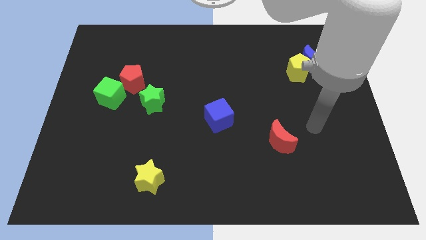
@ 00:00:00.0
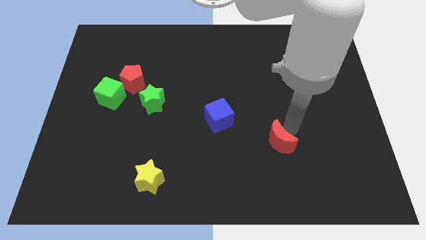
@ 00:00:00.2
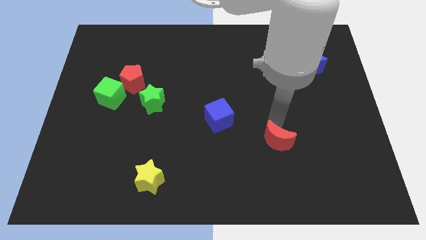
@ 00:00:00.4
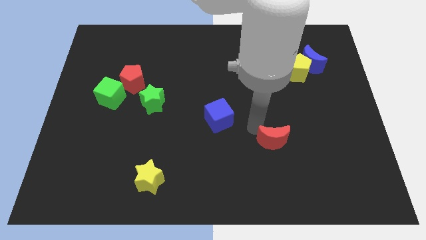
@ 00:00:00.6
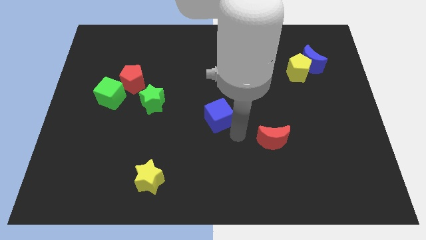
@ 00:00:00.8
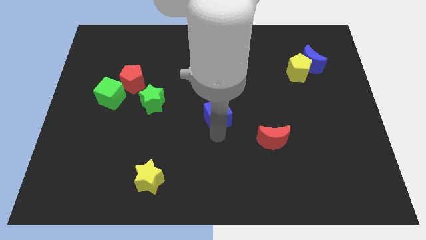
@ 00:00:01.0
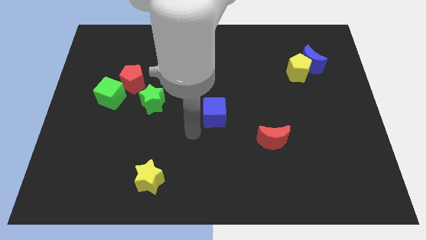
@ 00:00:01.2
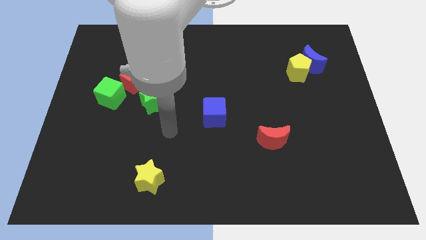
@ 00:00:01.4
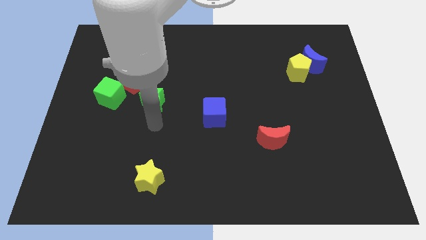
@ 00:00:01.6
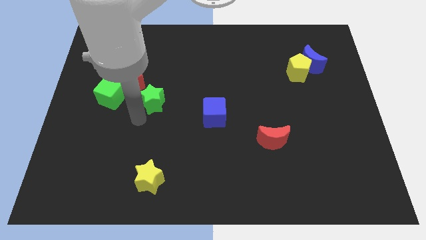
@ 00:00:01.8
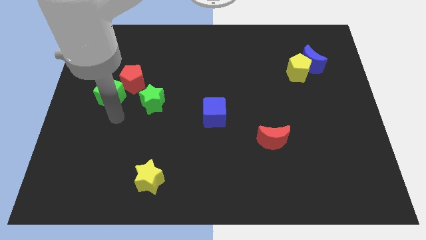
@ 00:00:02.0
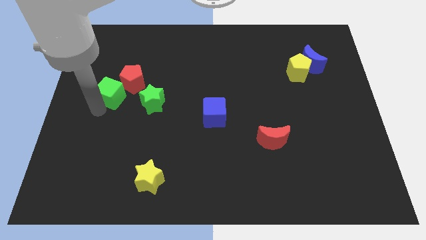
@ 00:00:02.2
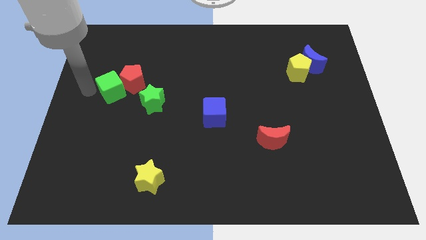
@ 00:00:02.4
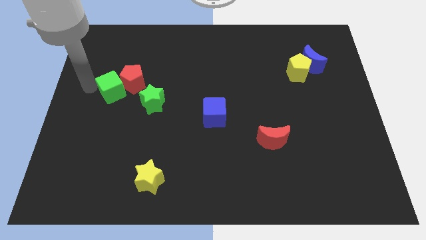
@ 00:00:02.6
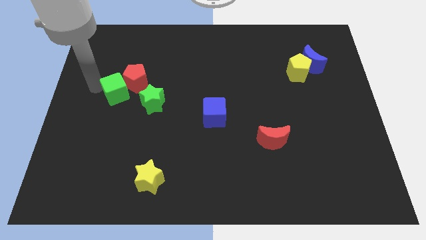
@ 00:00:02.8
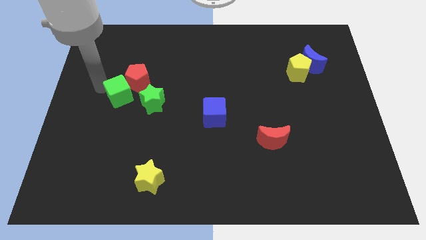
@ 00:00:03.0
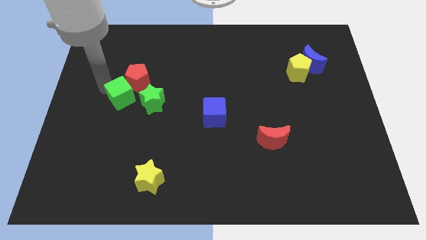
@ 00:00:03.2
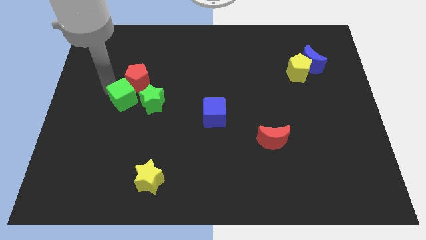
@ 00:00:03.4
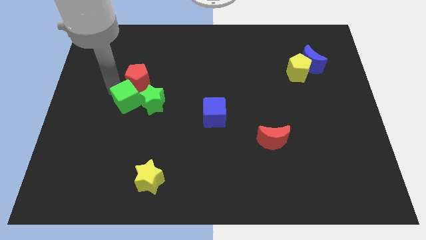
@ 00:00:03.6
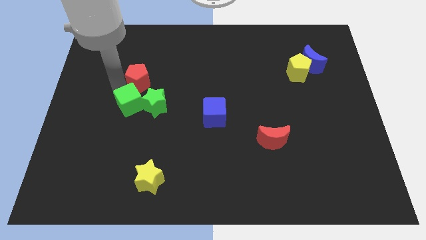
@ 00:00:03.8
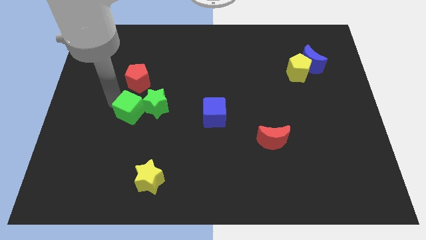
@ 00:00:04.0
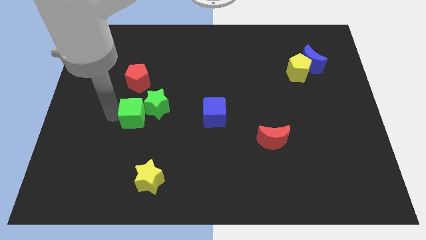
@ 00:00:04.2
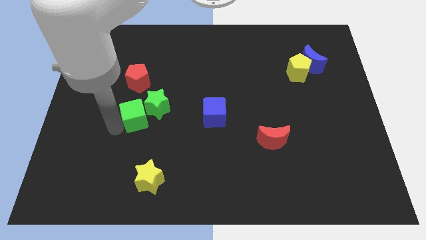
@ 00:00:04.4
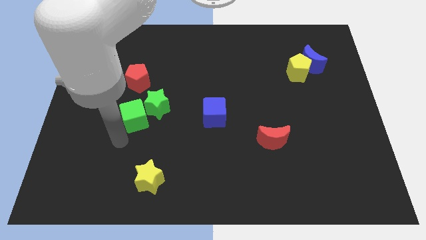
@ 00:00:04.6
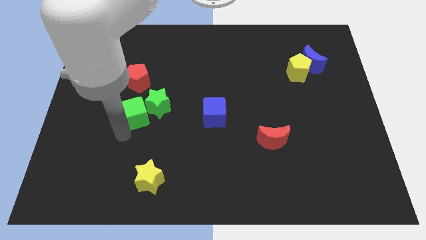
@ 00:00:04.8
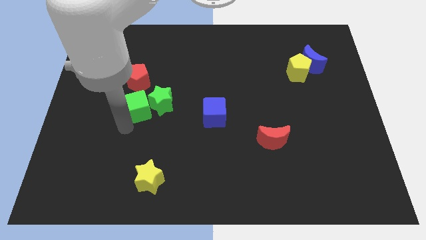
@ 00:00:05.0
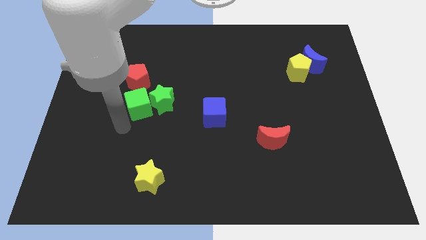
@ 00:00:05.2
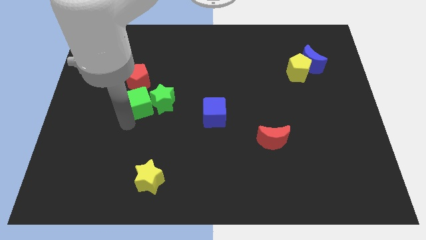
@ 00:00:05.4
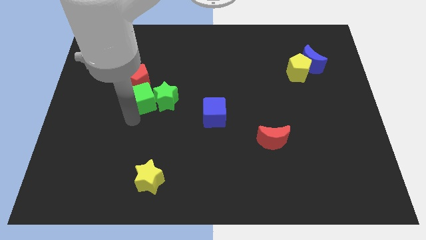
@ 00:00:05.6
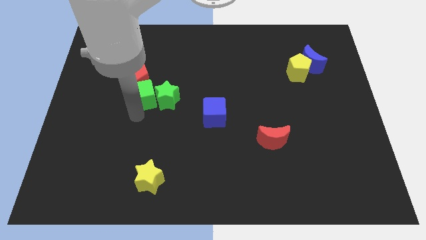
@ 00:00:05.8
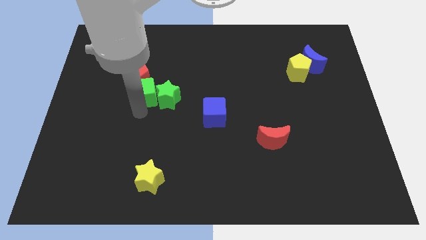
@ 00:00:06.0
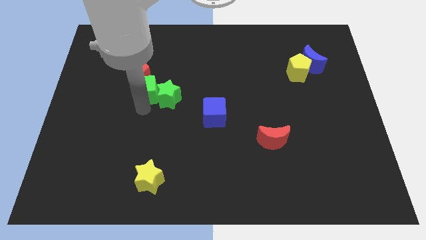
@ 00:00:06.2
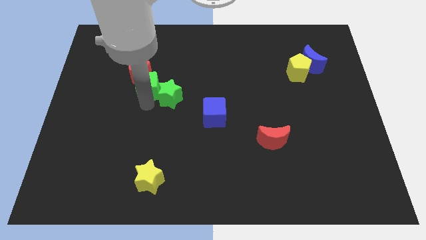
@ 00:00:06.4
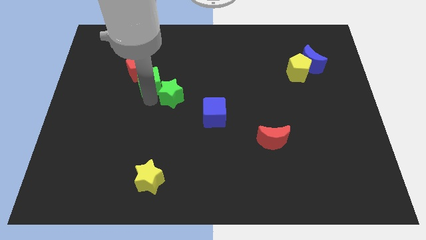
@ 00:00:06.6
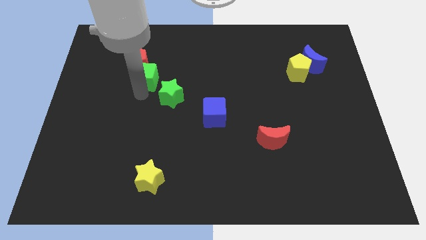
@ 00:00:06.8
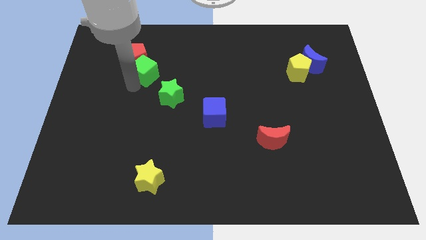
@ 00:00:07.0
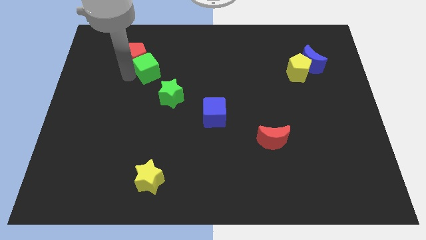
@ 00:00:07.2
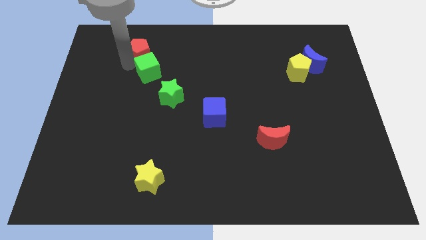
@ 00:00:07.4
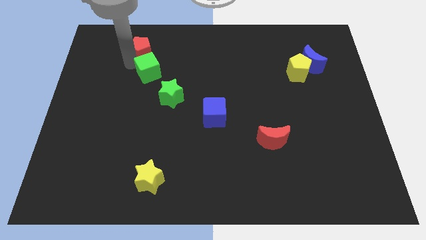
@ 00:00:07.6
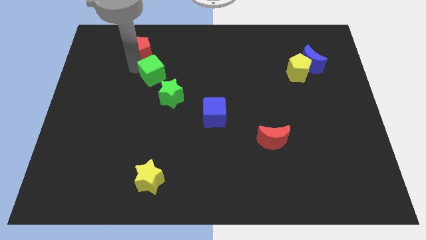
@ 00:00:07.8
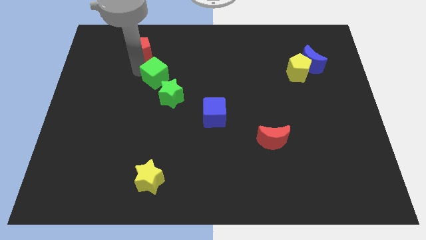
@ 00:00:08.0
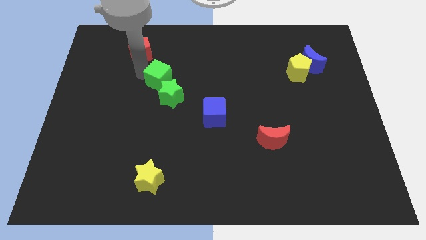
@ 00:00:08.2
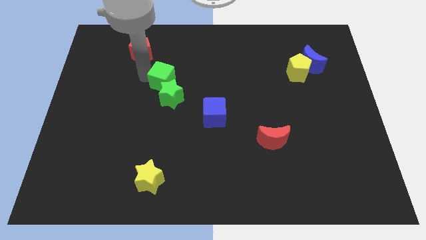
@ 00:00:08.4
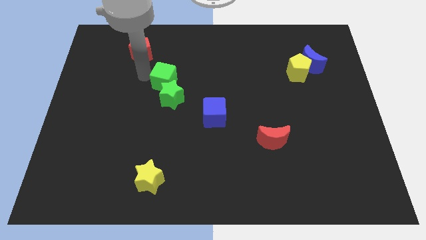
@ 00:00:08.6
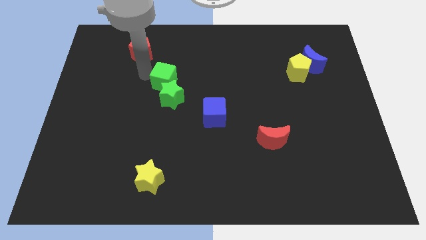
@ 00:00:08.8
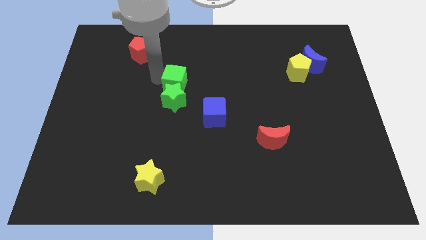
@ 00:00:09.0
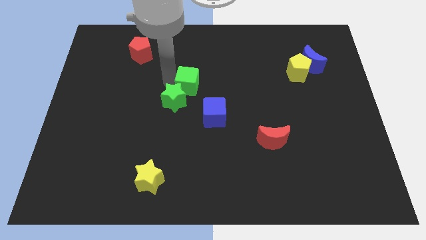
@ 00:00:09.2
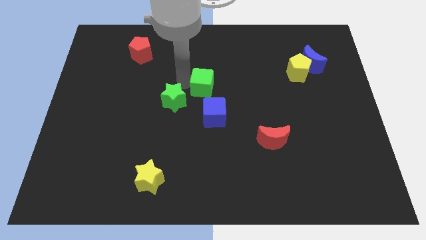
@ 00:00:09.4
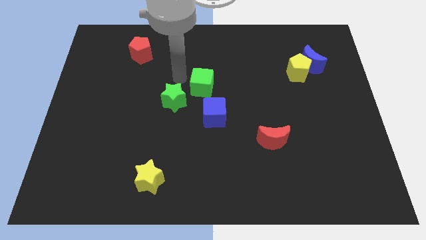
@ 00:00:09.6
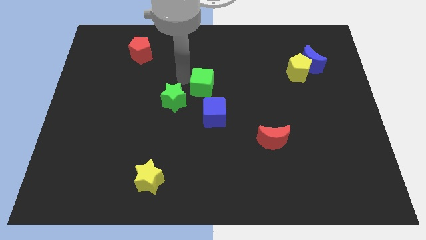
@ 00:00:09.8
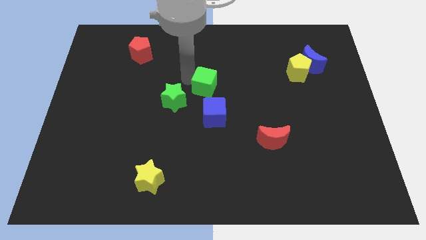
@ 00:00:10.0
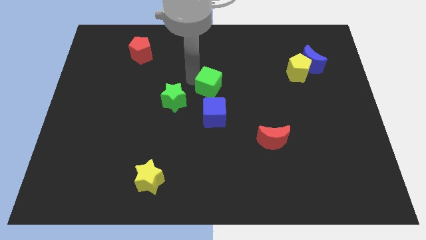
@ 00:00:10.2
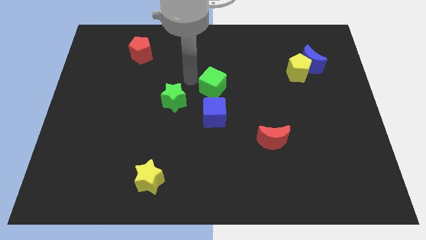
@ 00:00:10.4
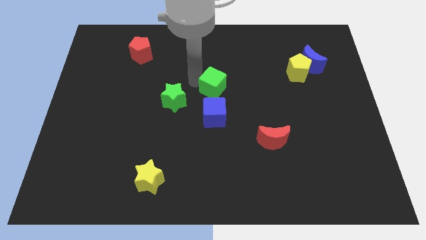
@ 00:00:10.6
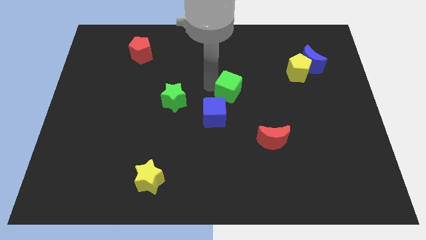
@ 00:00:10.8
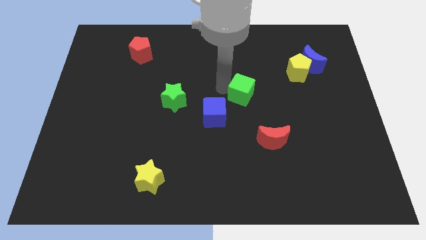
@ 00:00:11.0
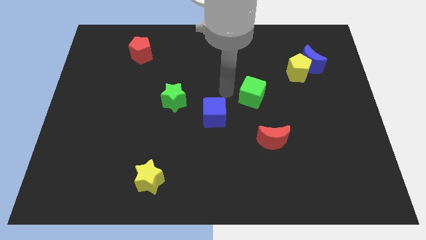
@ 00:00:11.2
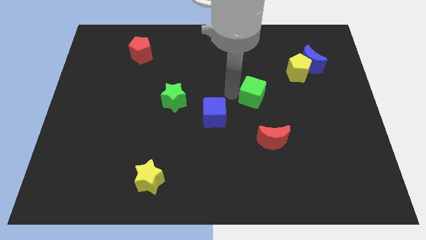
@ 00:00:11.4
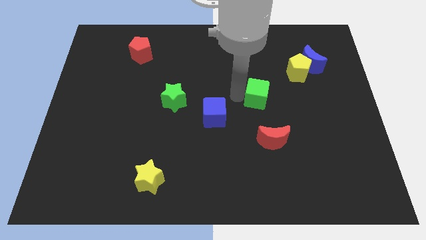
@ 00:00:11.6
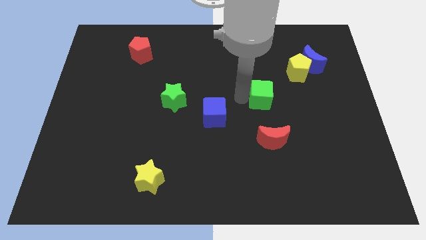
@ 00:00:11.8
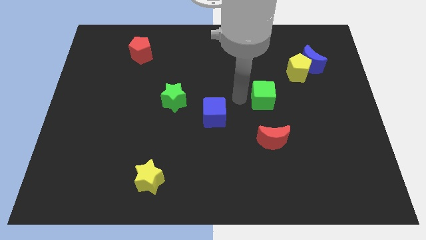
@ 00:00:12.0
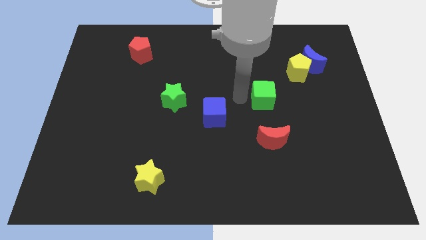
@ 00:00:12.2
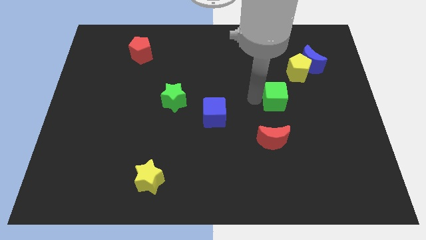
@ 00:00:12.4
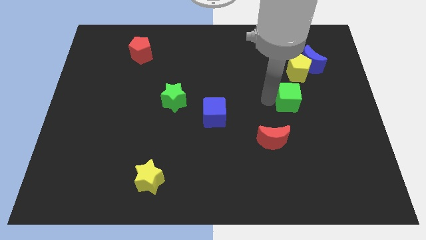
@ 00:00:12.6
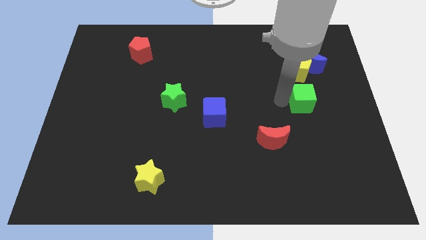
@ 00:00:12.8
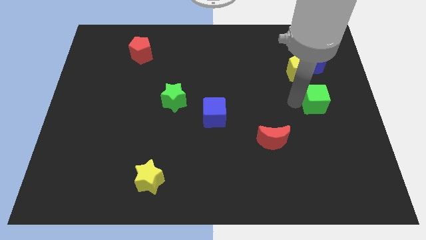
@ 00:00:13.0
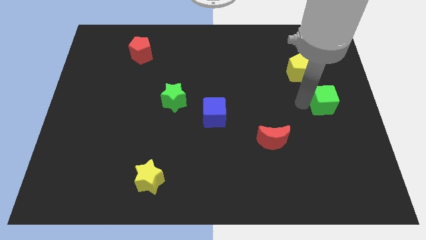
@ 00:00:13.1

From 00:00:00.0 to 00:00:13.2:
move the green cube to the right side
